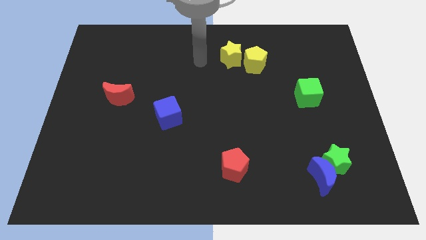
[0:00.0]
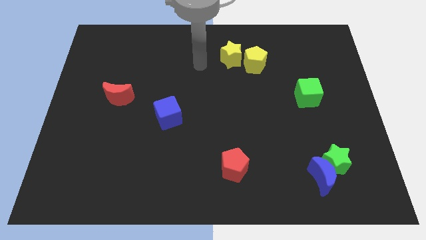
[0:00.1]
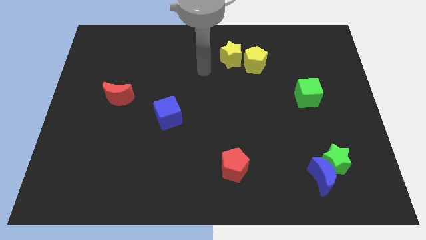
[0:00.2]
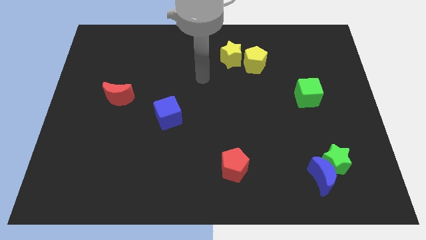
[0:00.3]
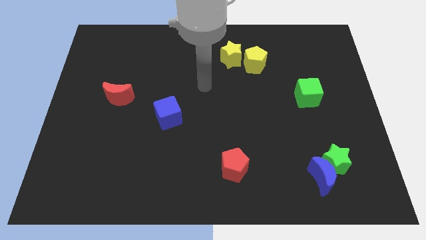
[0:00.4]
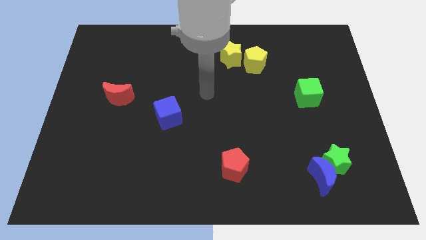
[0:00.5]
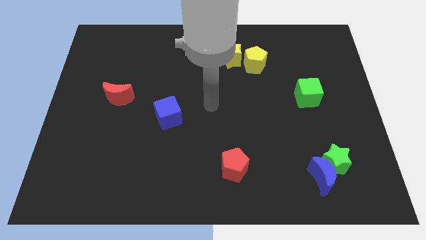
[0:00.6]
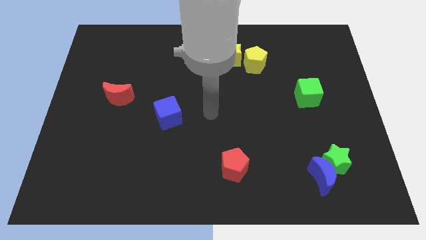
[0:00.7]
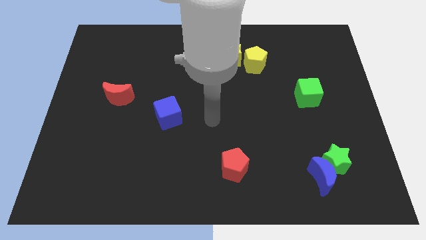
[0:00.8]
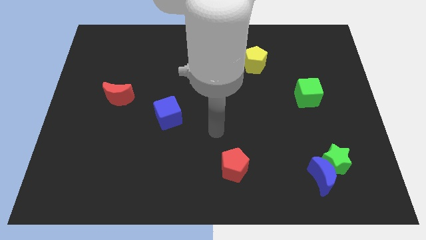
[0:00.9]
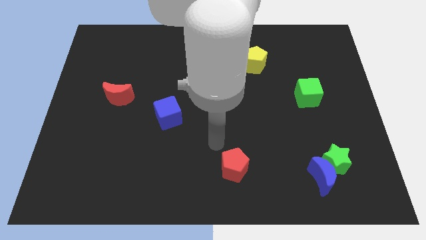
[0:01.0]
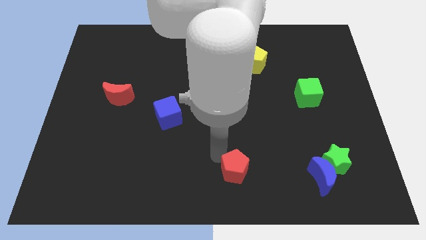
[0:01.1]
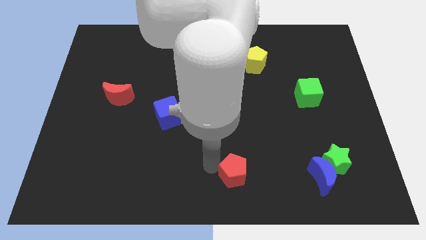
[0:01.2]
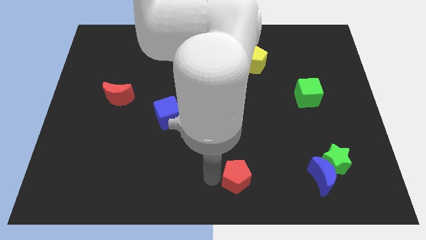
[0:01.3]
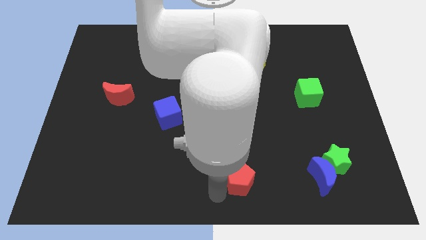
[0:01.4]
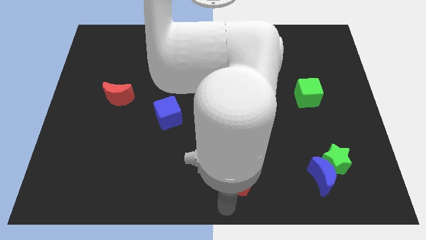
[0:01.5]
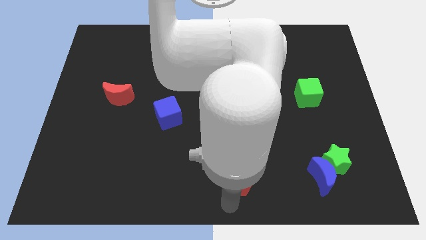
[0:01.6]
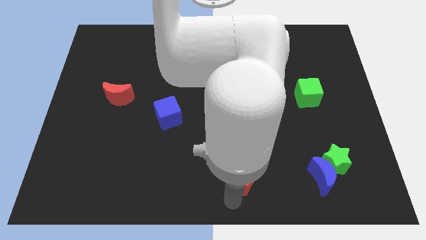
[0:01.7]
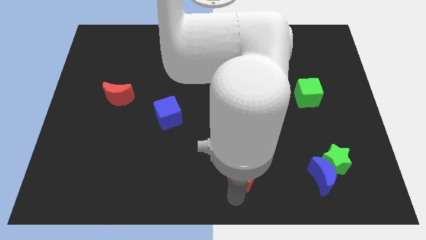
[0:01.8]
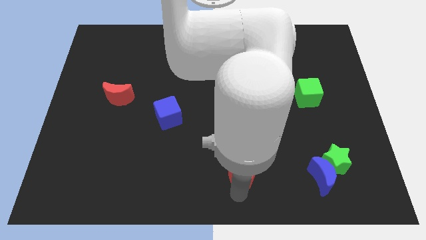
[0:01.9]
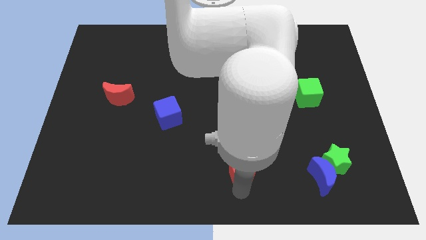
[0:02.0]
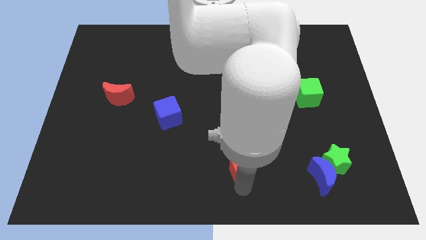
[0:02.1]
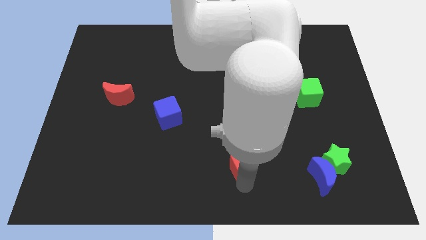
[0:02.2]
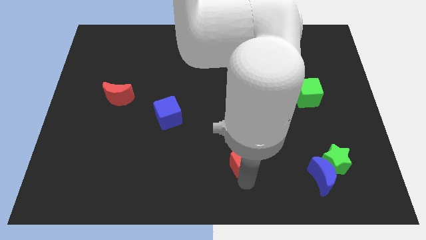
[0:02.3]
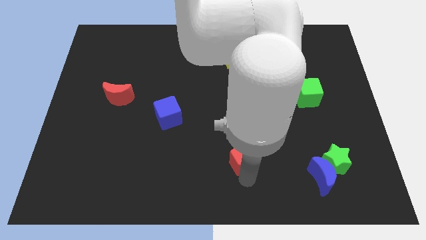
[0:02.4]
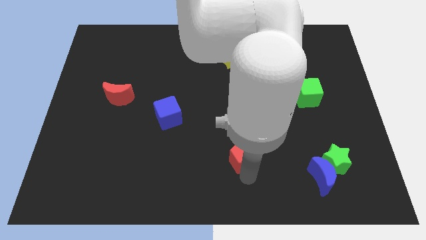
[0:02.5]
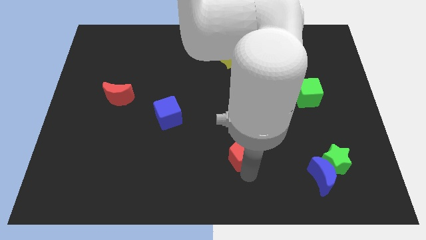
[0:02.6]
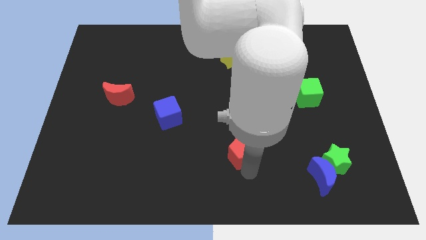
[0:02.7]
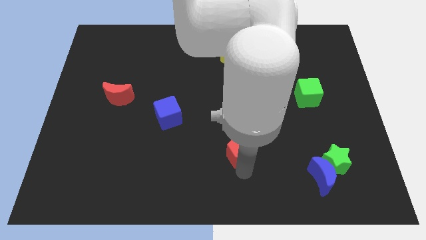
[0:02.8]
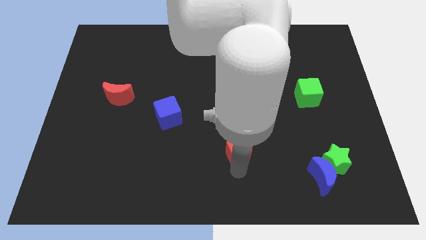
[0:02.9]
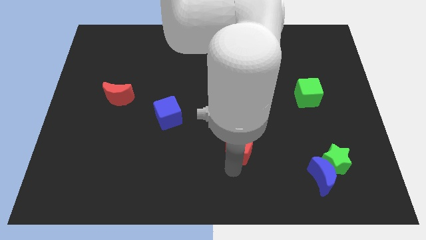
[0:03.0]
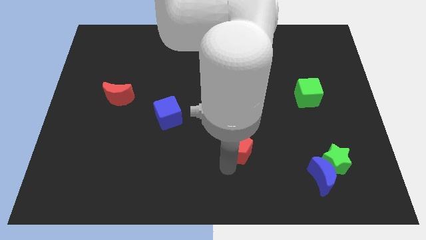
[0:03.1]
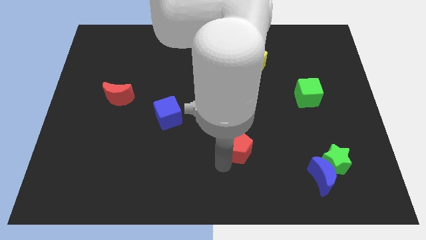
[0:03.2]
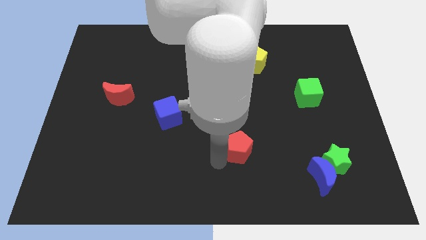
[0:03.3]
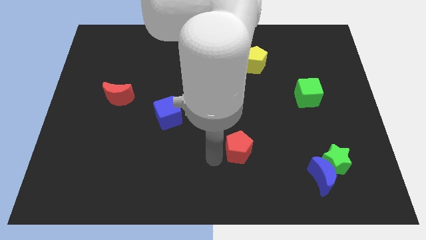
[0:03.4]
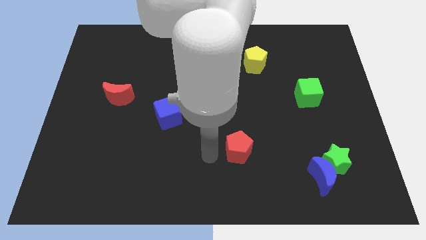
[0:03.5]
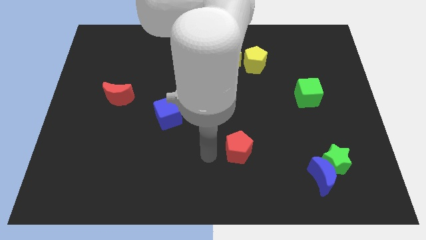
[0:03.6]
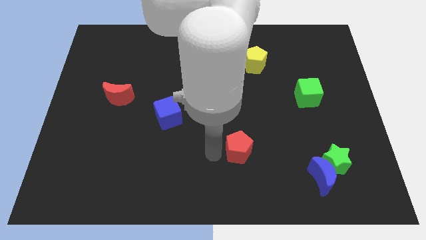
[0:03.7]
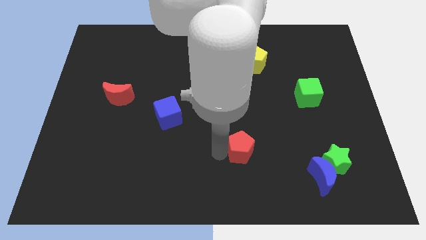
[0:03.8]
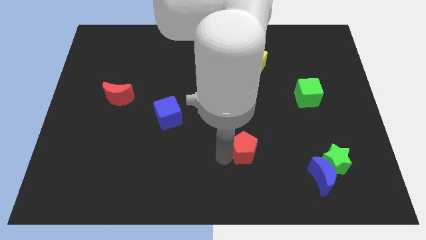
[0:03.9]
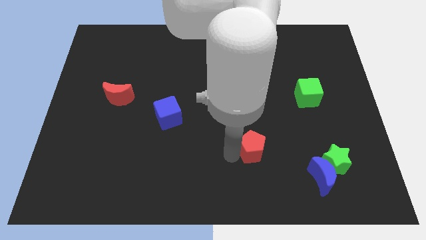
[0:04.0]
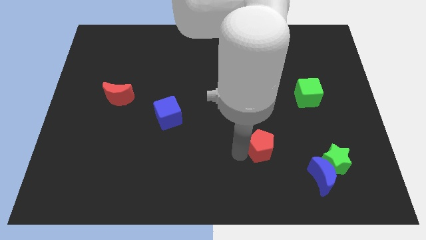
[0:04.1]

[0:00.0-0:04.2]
slightly slide the red pentagon diagonally up and to the right

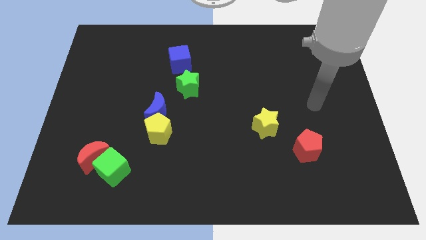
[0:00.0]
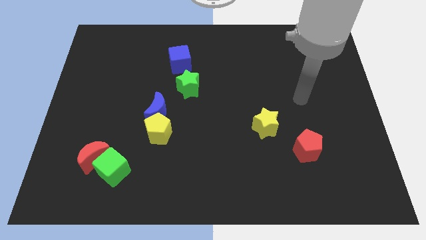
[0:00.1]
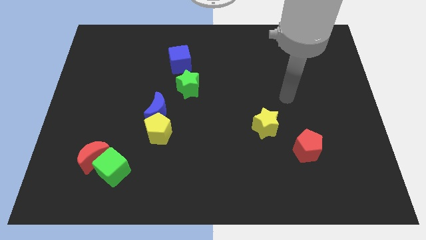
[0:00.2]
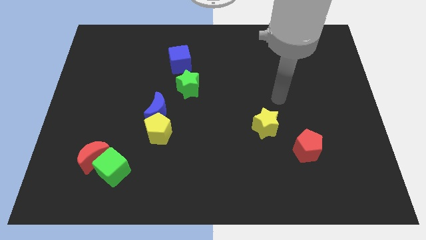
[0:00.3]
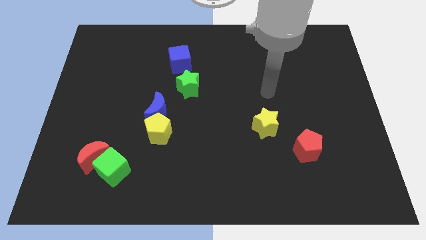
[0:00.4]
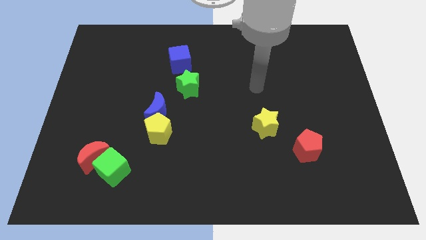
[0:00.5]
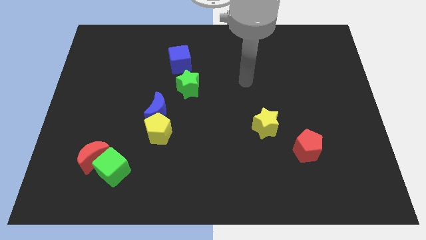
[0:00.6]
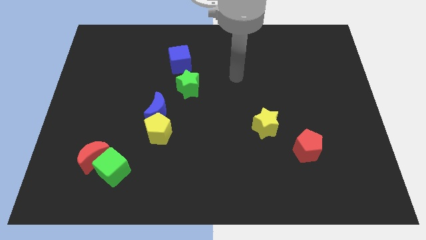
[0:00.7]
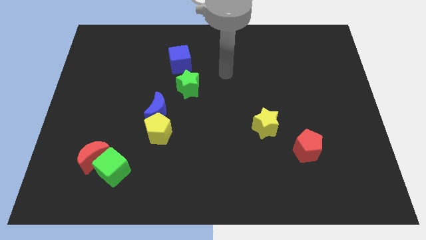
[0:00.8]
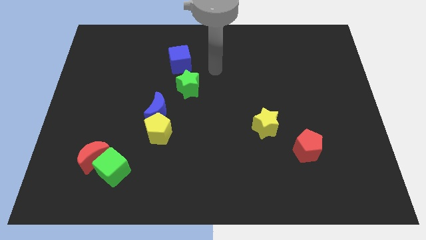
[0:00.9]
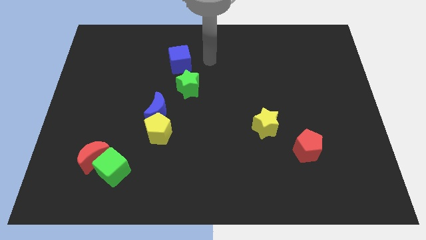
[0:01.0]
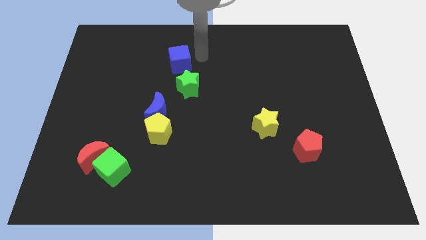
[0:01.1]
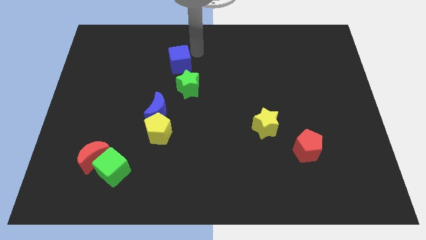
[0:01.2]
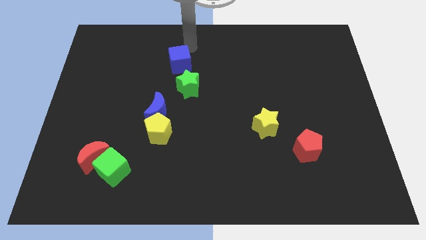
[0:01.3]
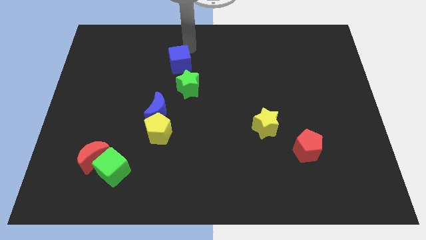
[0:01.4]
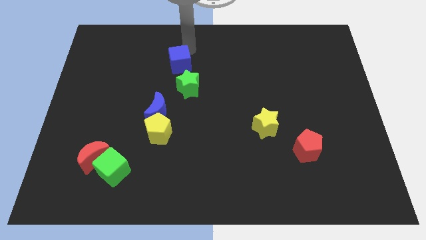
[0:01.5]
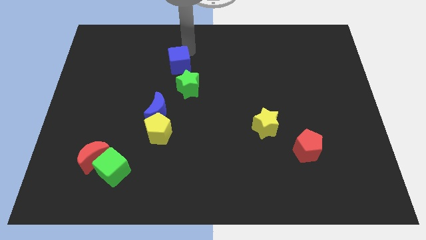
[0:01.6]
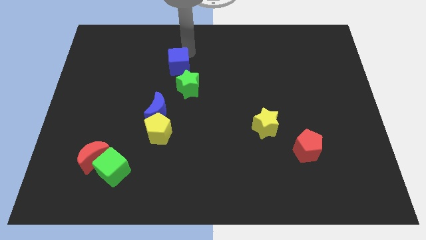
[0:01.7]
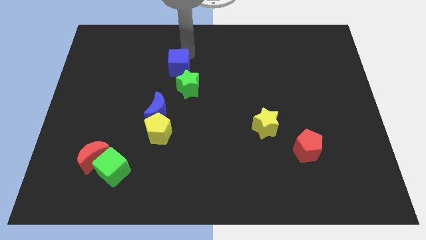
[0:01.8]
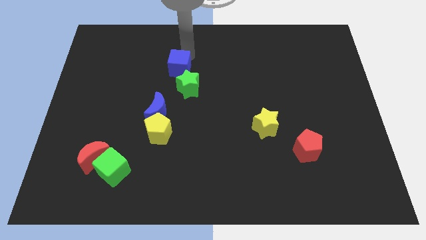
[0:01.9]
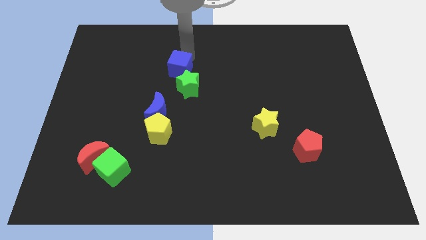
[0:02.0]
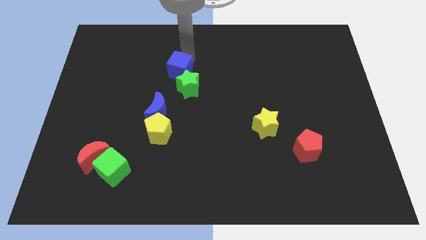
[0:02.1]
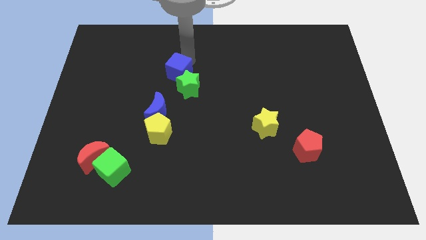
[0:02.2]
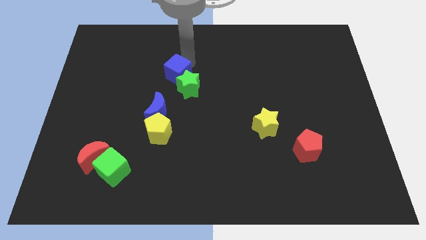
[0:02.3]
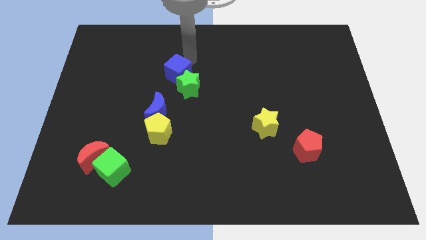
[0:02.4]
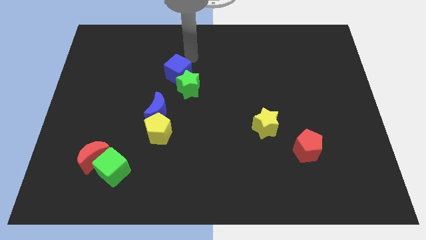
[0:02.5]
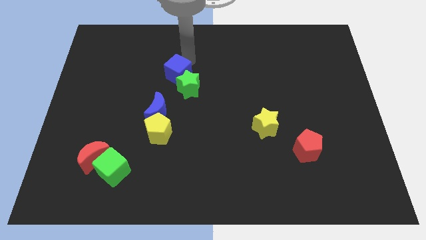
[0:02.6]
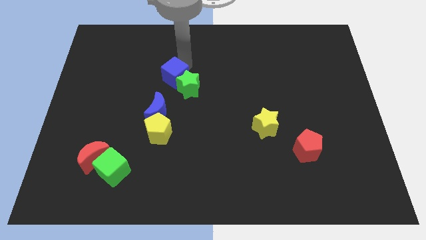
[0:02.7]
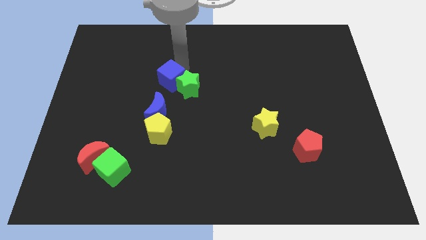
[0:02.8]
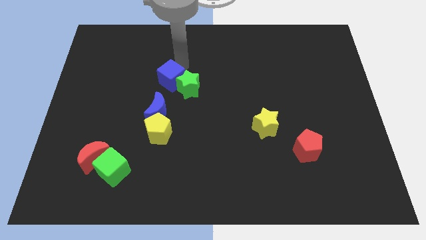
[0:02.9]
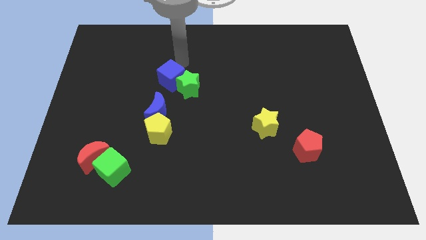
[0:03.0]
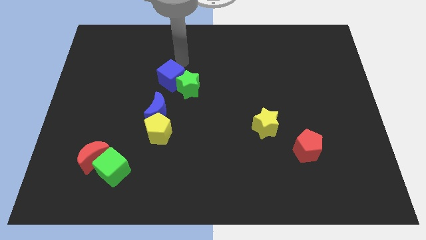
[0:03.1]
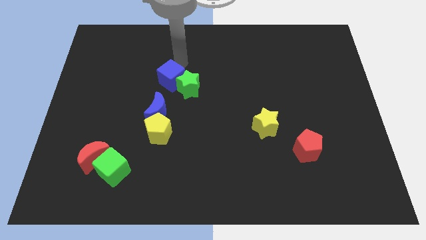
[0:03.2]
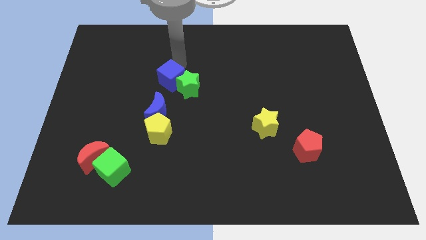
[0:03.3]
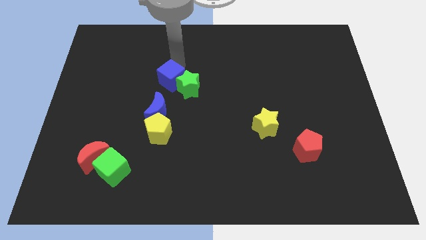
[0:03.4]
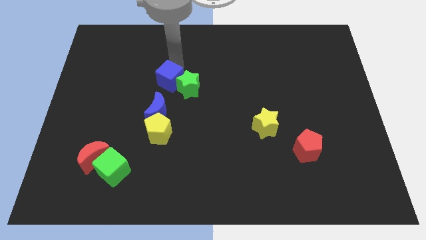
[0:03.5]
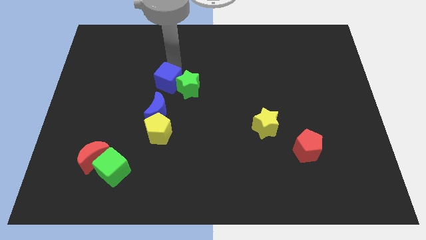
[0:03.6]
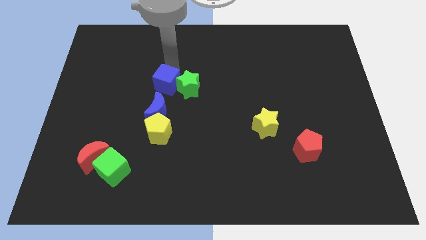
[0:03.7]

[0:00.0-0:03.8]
slightly push the blue cube downwards

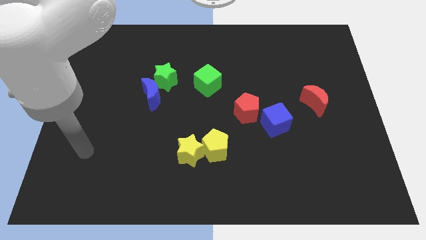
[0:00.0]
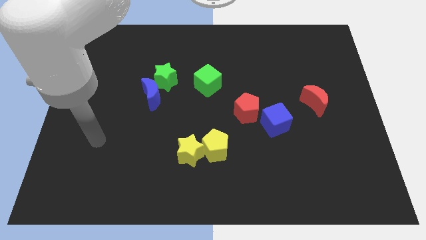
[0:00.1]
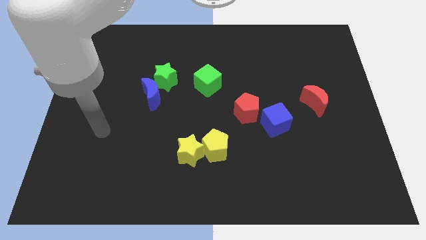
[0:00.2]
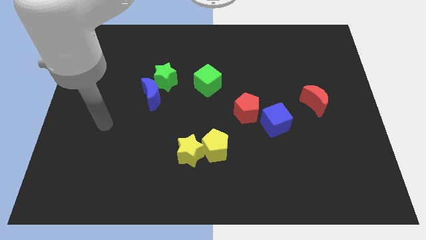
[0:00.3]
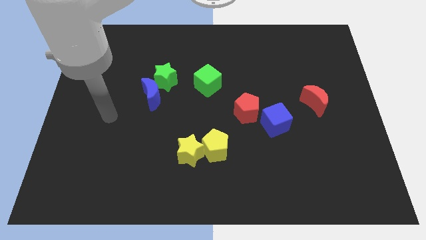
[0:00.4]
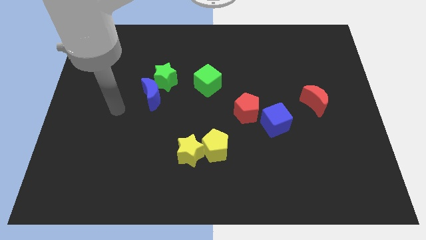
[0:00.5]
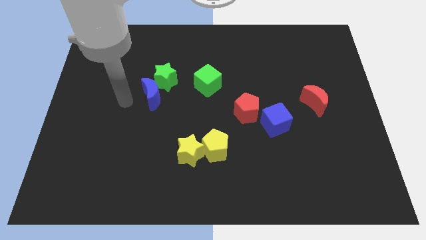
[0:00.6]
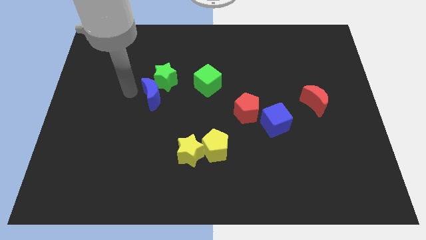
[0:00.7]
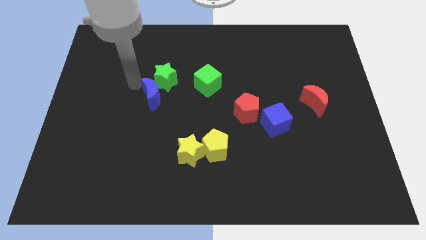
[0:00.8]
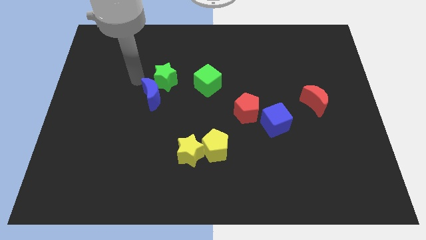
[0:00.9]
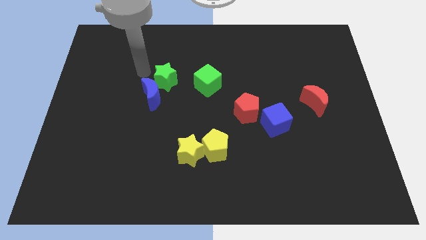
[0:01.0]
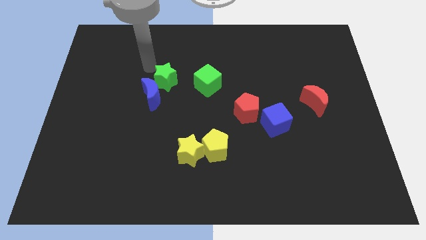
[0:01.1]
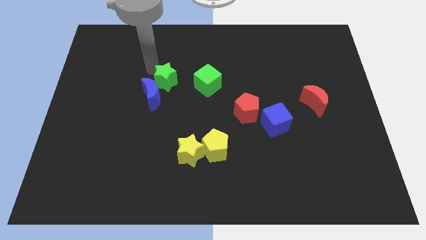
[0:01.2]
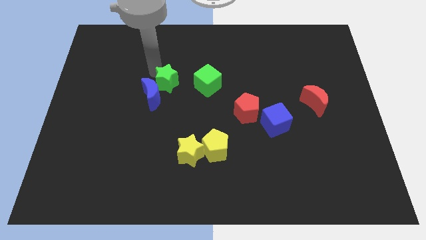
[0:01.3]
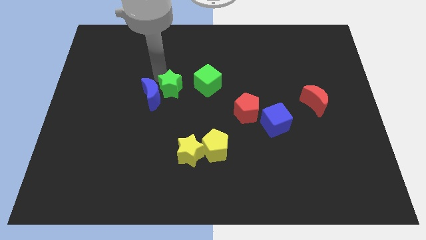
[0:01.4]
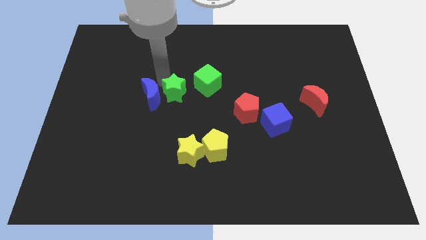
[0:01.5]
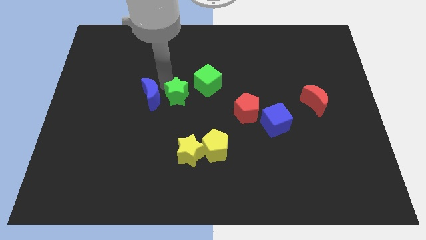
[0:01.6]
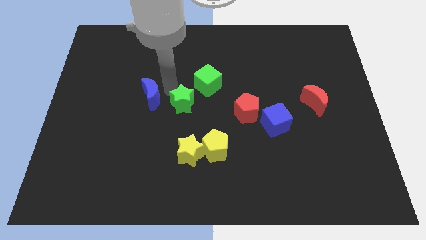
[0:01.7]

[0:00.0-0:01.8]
slightly move the green star down and then right
